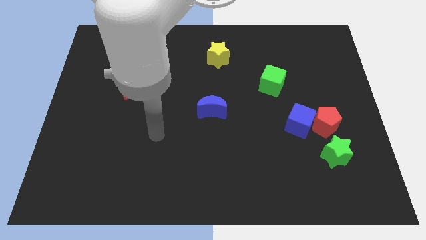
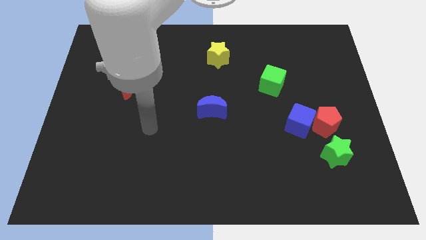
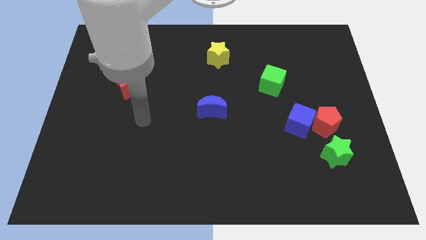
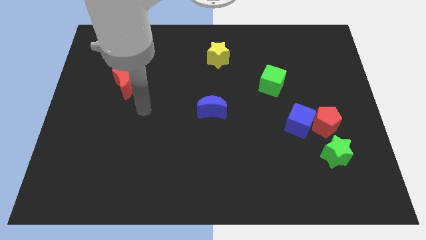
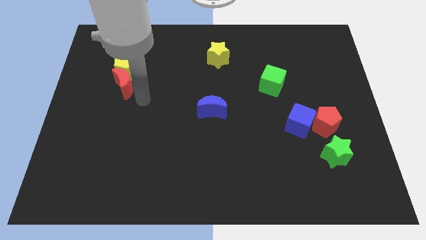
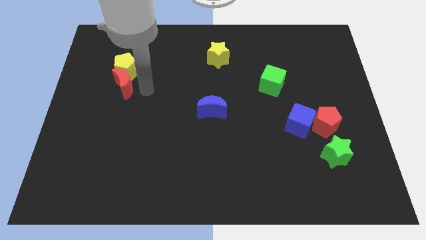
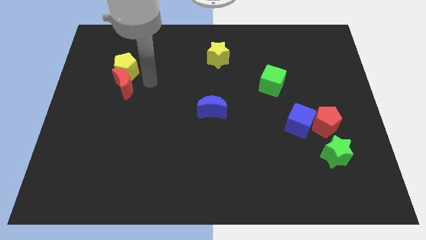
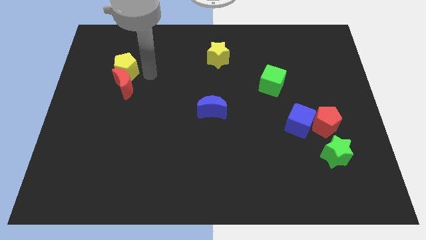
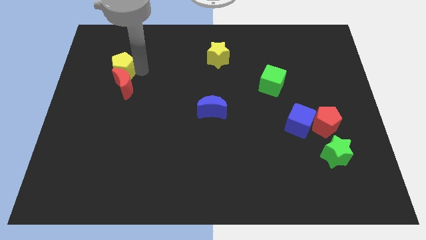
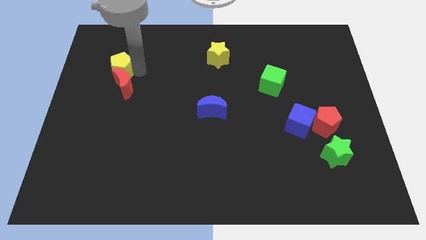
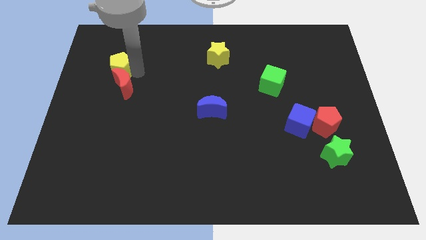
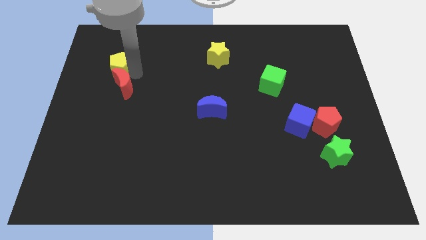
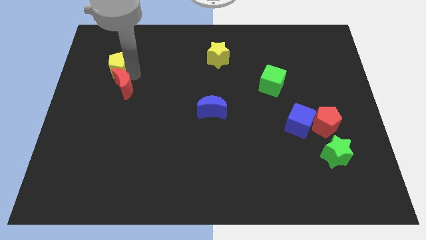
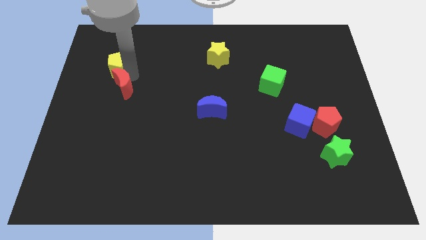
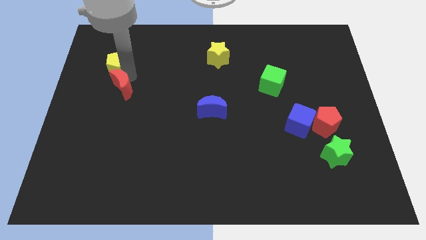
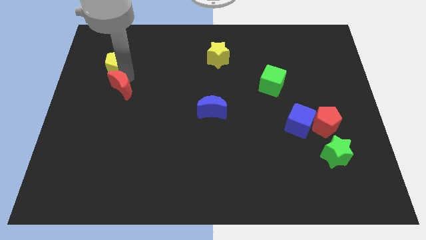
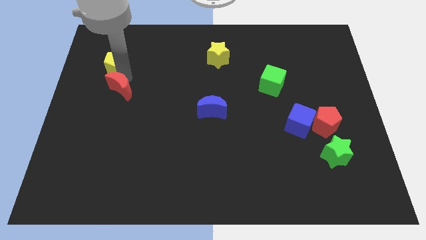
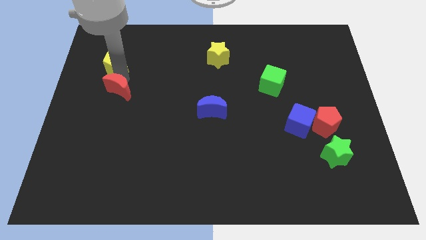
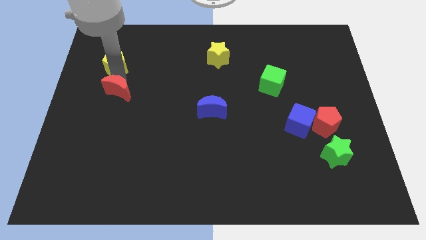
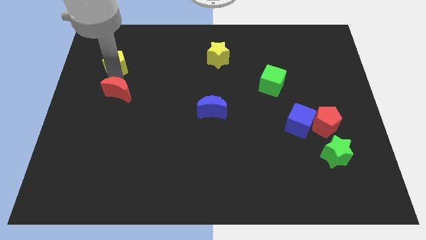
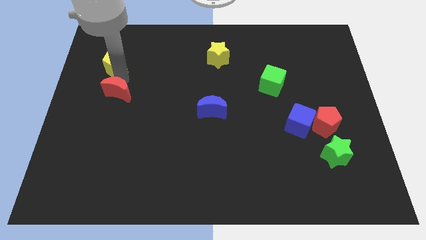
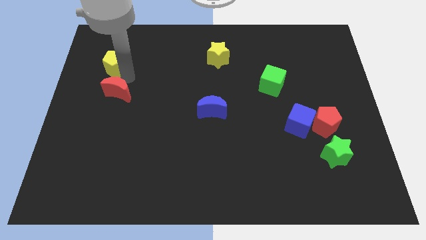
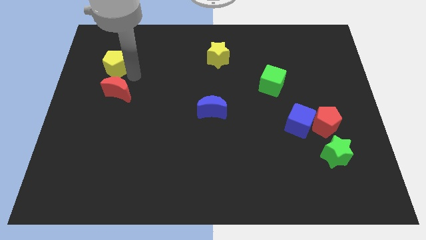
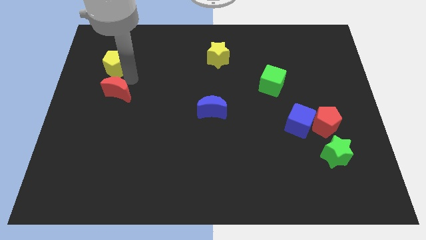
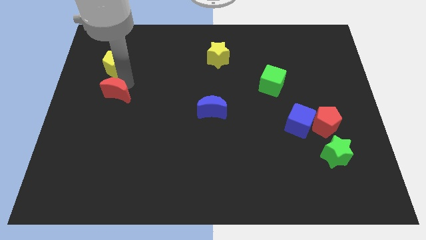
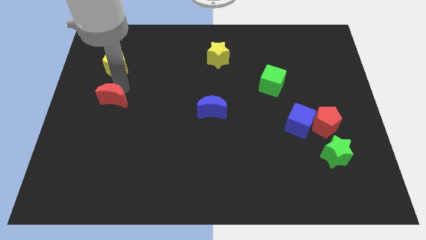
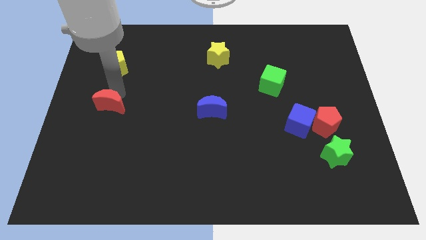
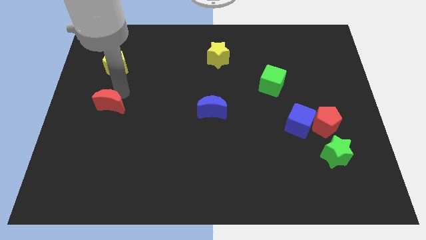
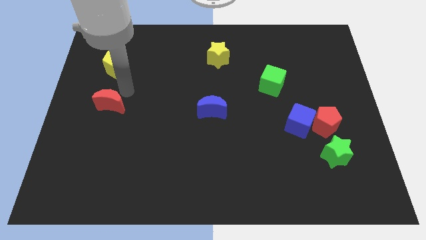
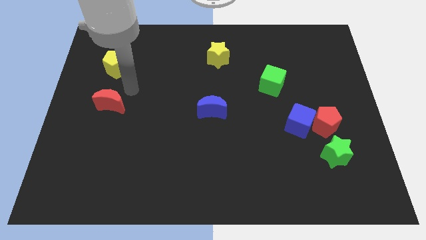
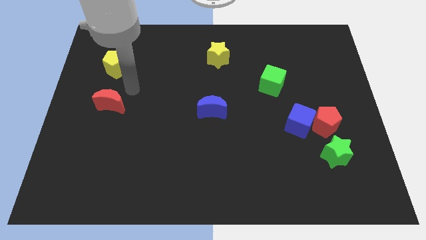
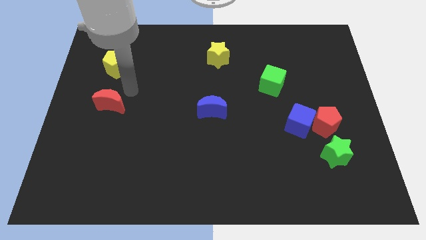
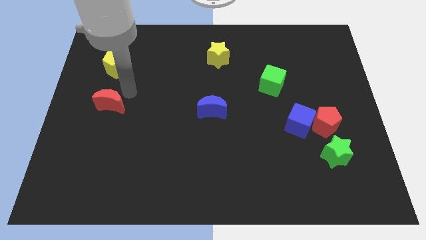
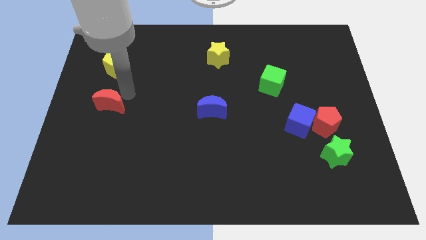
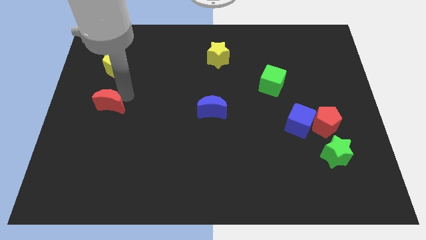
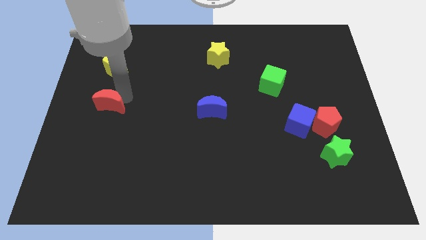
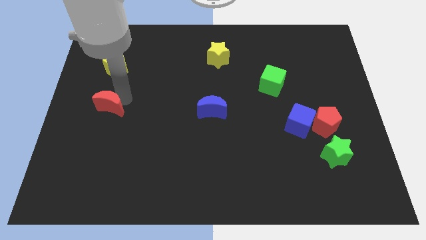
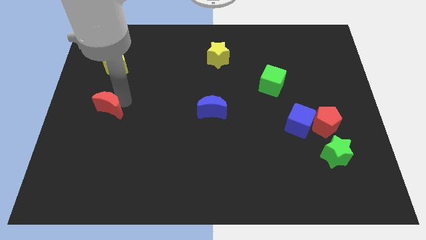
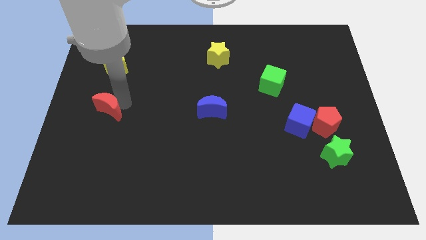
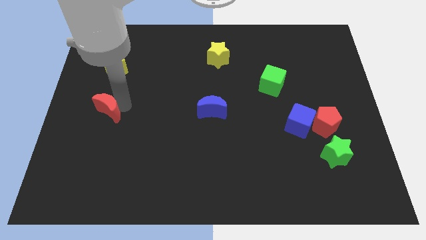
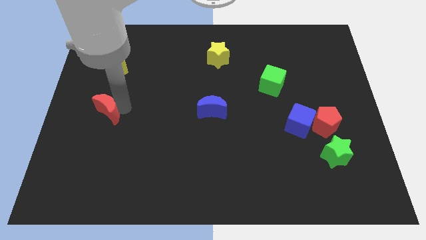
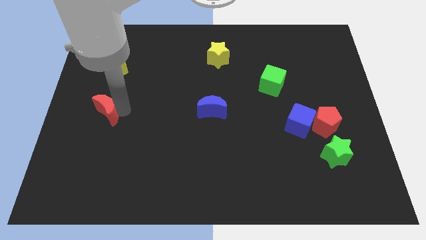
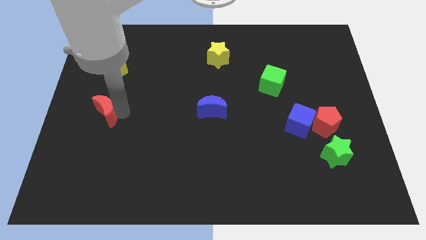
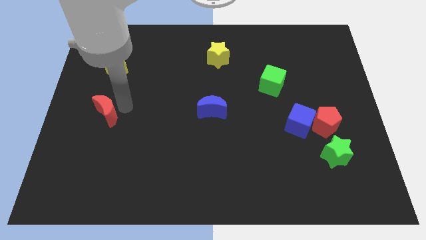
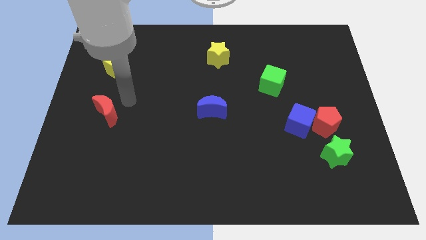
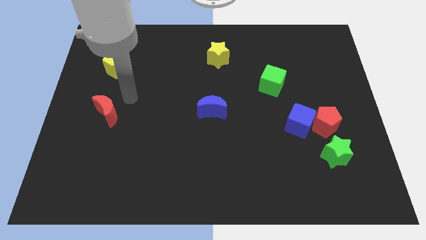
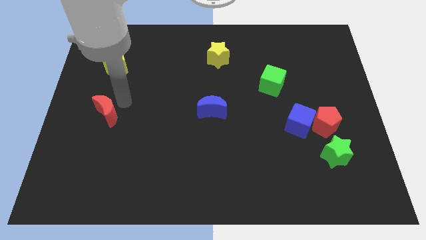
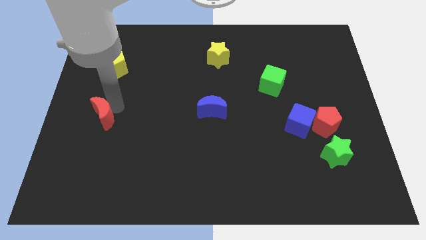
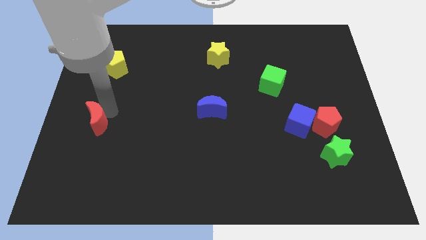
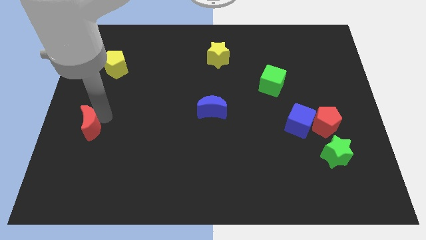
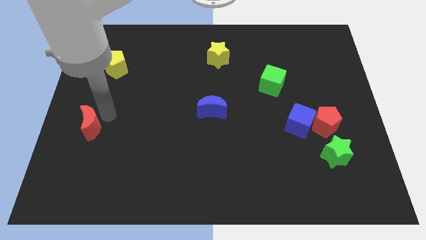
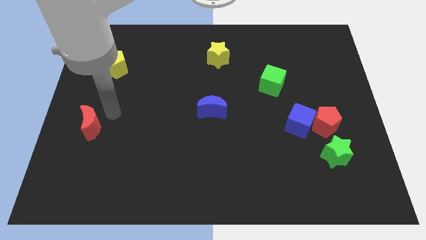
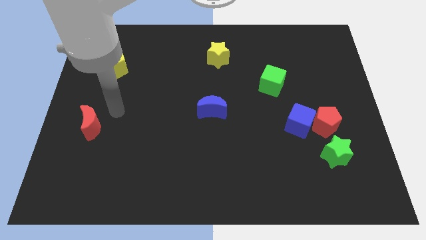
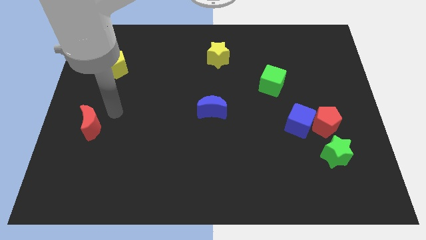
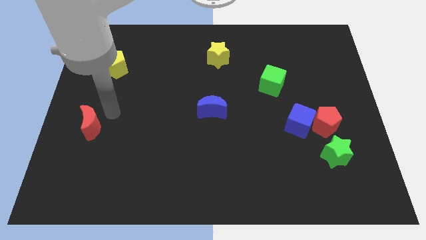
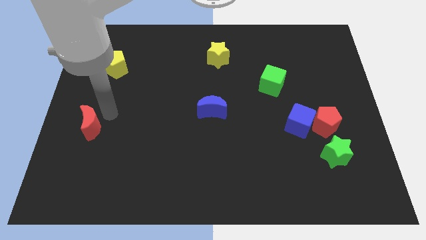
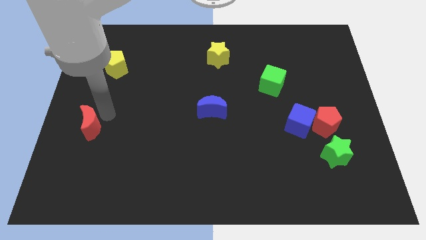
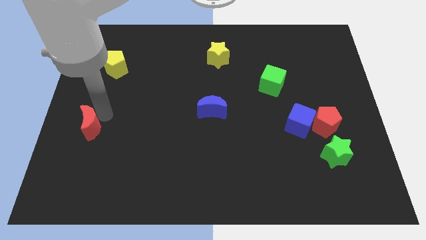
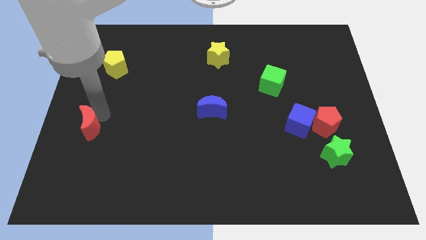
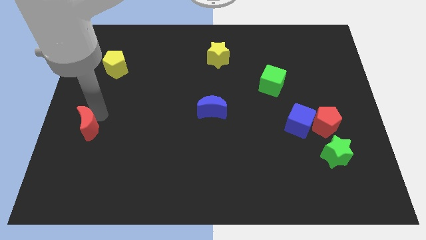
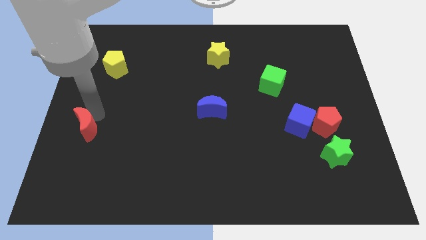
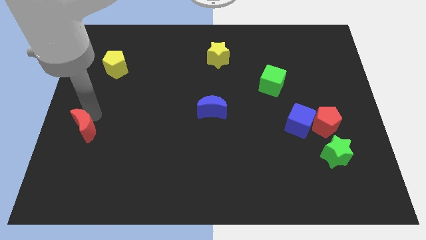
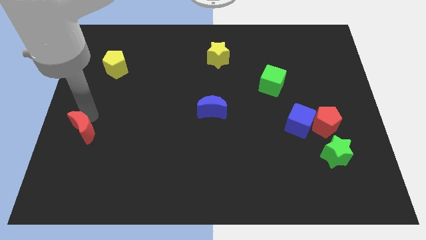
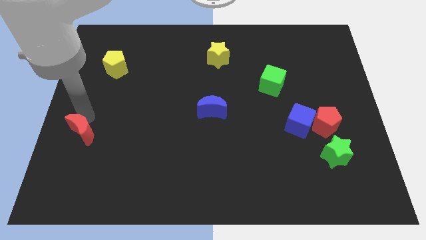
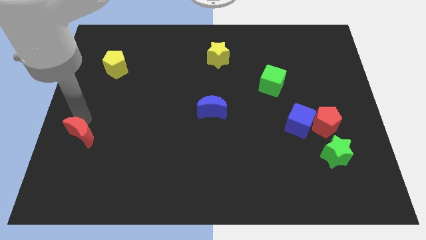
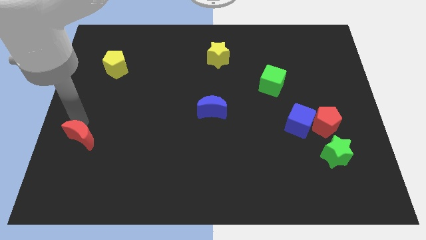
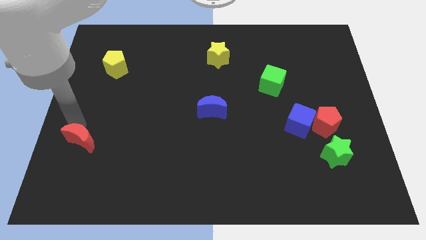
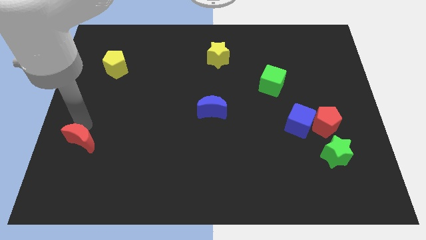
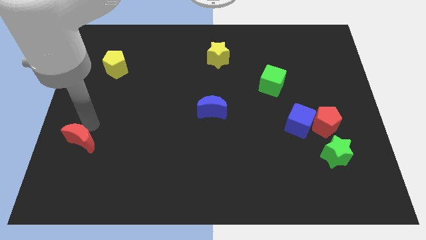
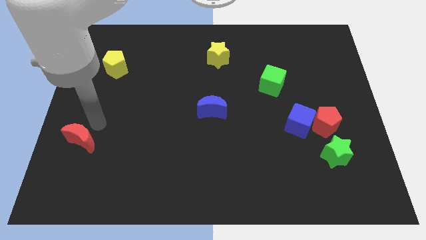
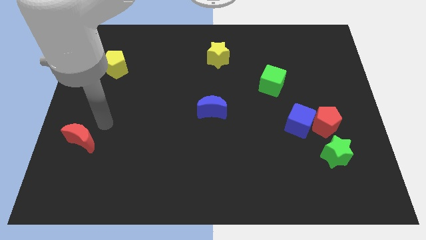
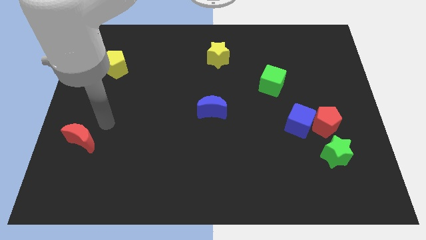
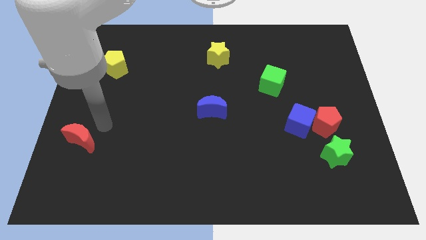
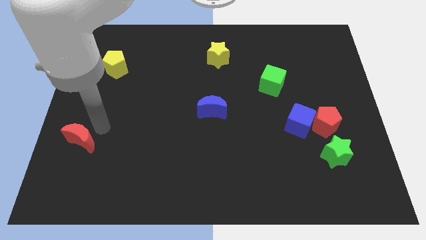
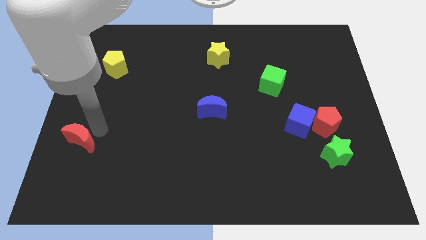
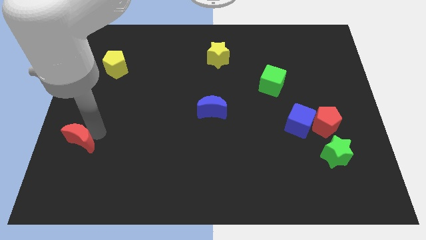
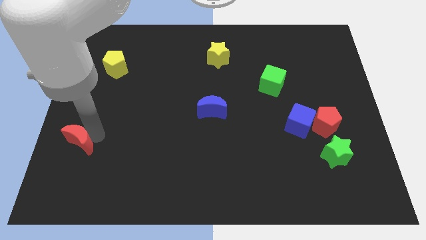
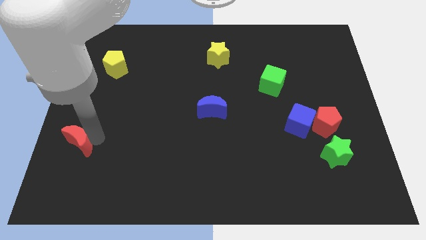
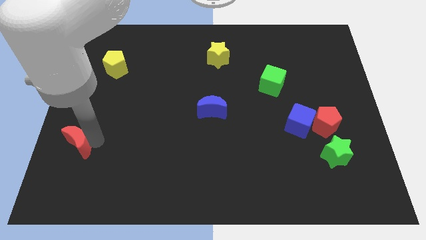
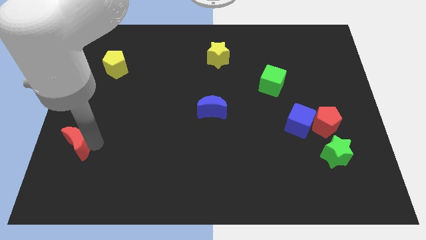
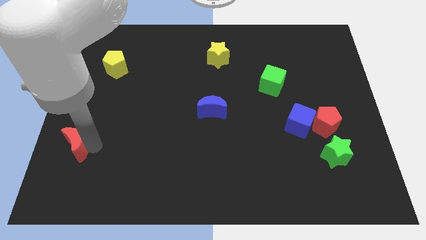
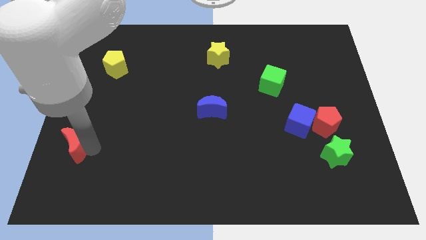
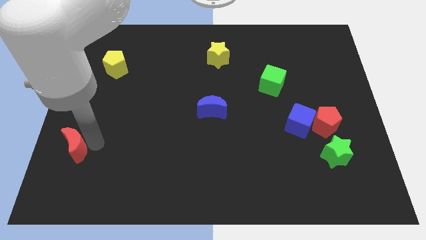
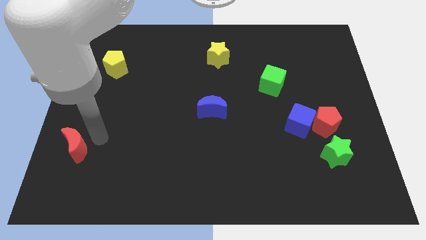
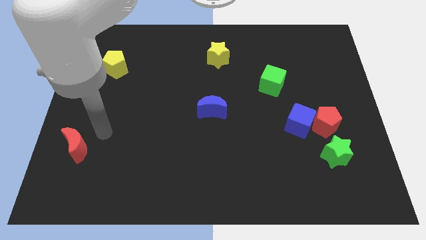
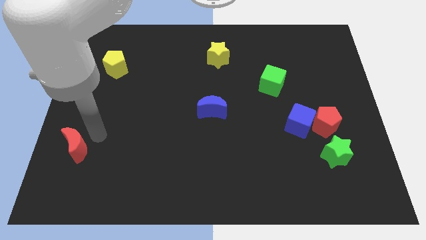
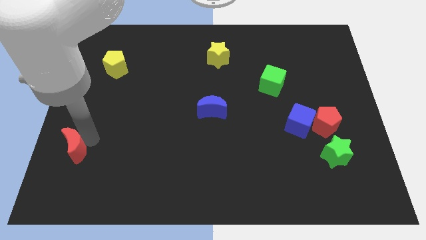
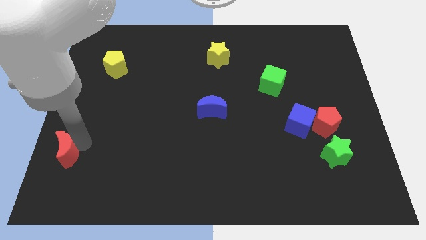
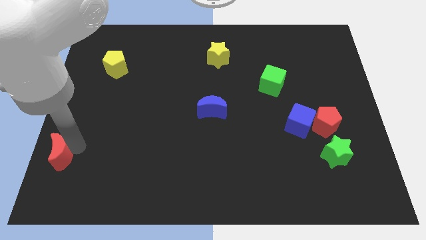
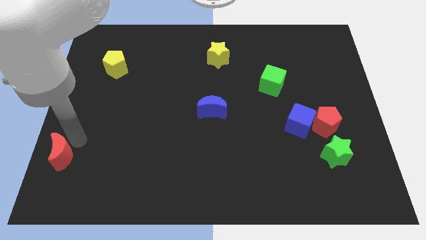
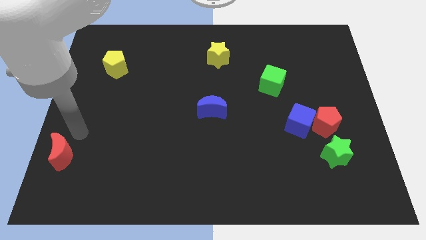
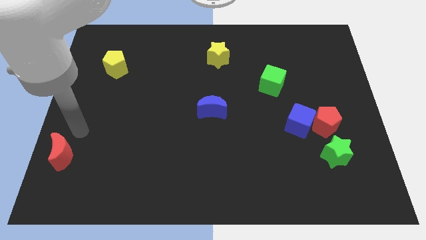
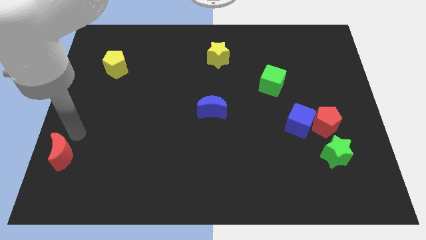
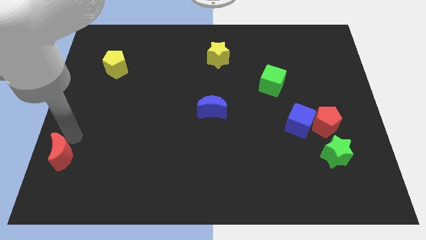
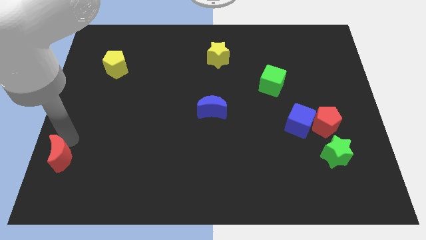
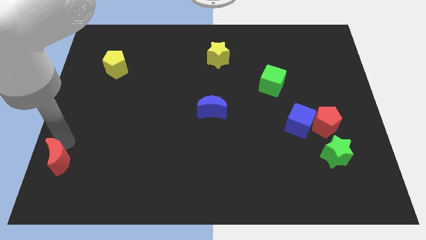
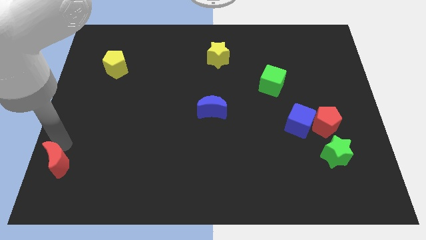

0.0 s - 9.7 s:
slide the red moon to the bottom left of the board
